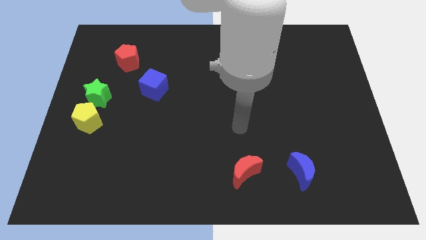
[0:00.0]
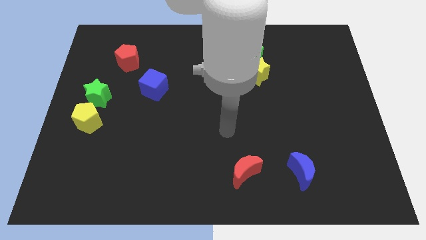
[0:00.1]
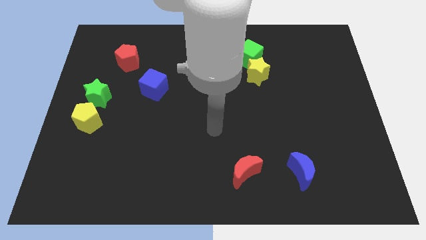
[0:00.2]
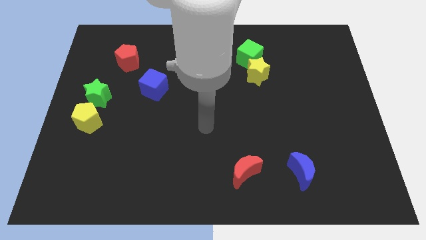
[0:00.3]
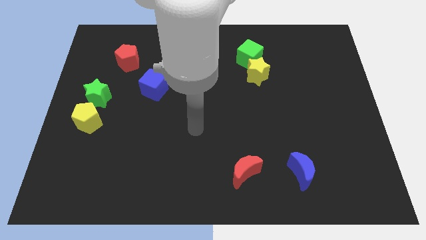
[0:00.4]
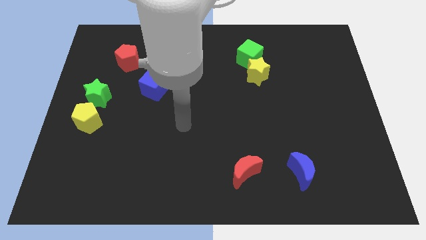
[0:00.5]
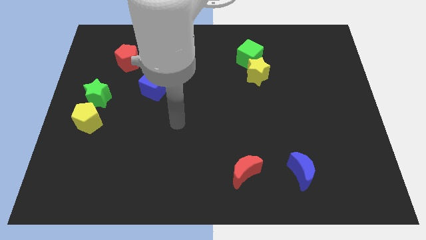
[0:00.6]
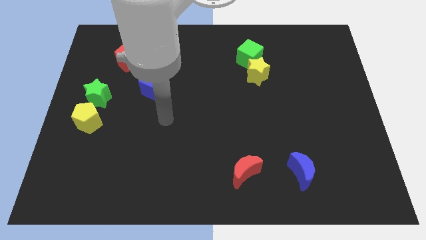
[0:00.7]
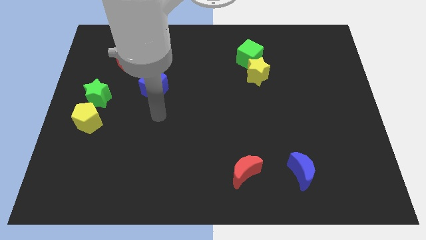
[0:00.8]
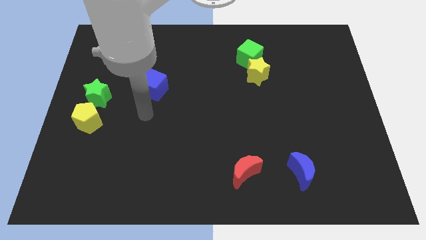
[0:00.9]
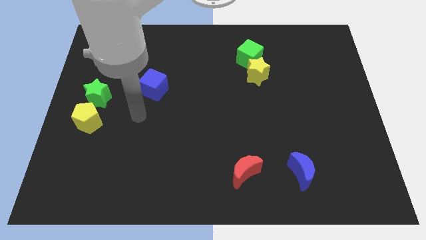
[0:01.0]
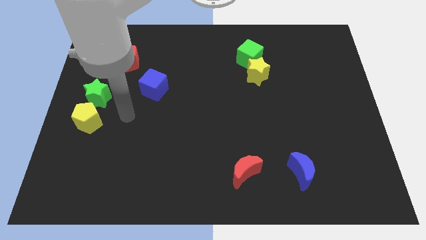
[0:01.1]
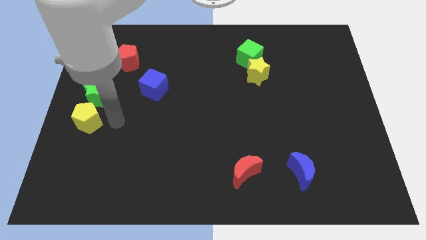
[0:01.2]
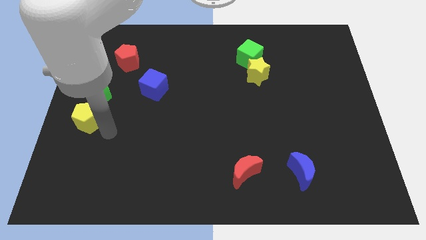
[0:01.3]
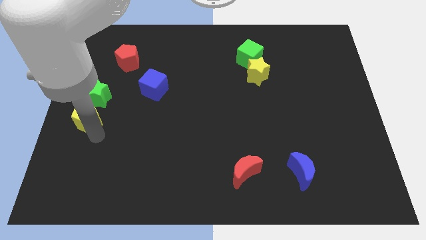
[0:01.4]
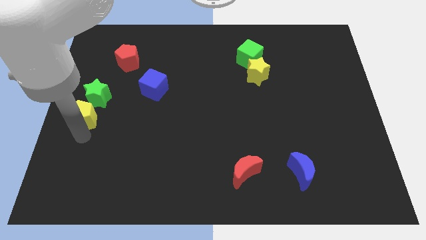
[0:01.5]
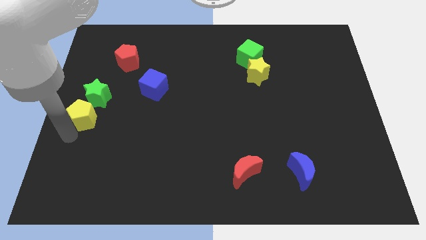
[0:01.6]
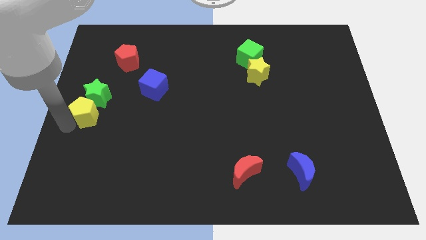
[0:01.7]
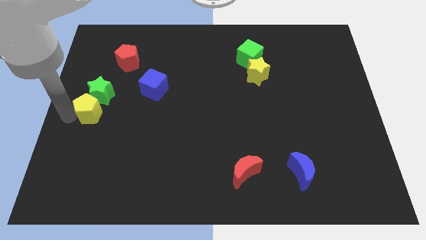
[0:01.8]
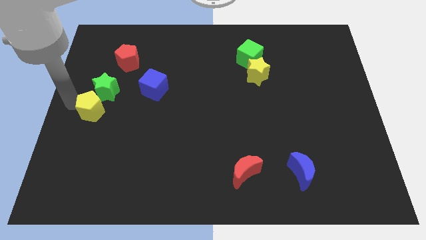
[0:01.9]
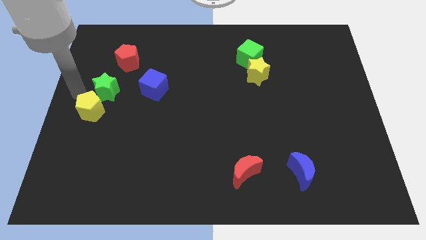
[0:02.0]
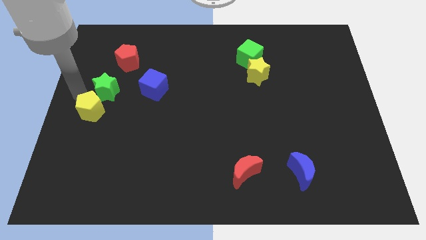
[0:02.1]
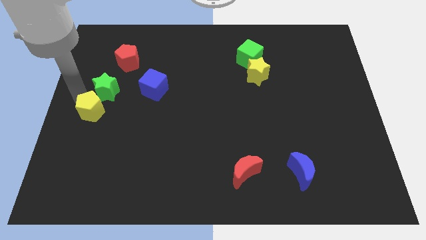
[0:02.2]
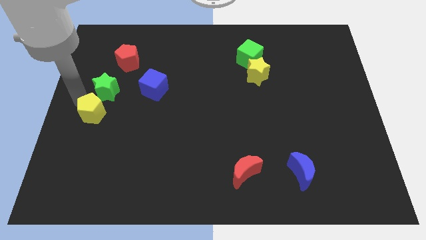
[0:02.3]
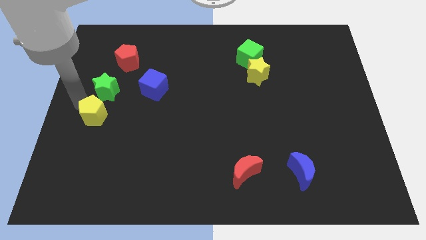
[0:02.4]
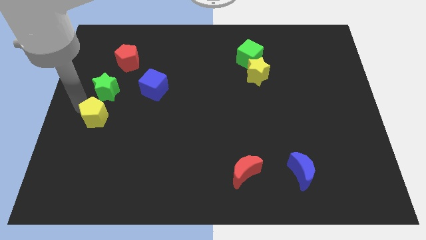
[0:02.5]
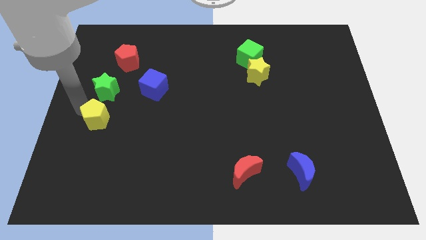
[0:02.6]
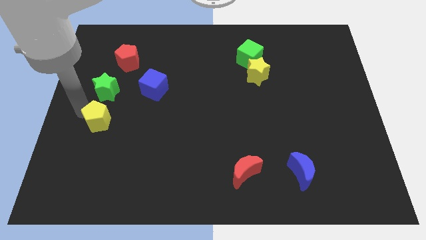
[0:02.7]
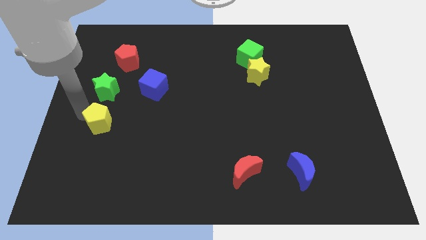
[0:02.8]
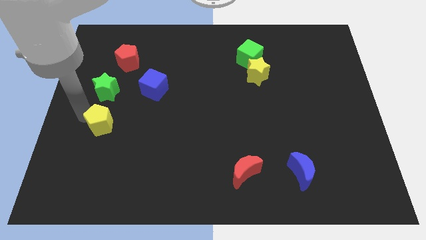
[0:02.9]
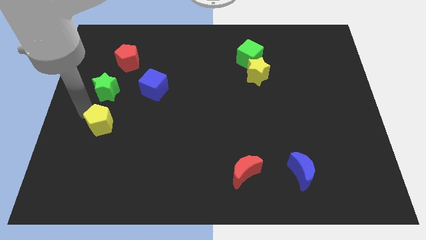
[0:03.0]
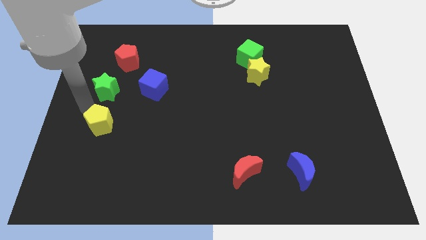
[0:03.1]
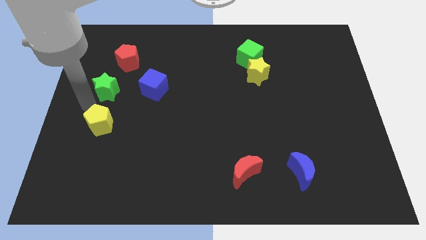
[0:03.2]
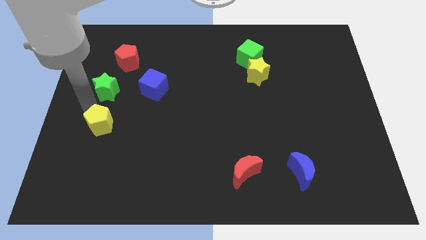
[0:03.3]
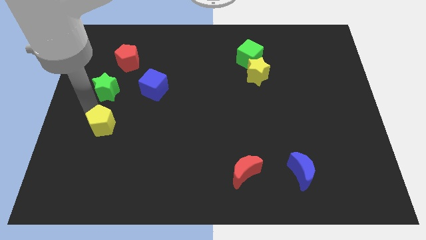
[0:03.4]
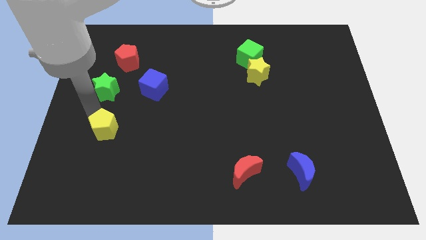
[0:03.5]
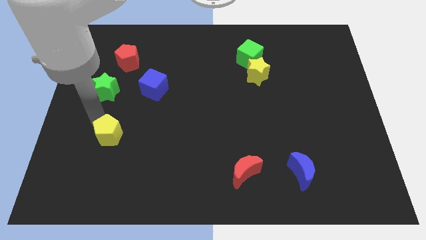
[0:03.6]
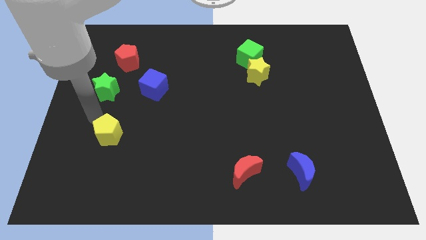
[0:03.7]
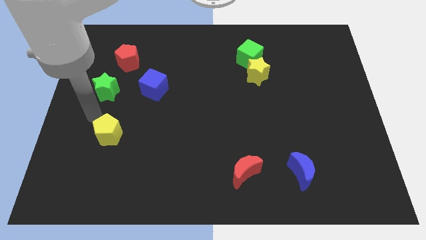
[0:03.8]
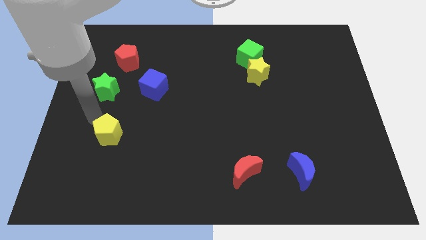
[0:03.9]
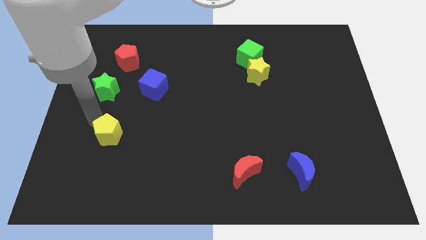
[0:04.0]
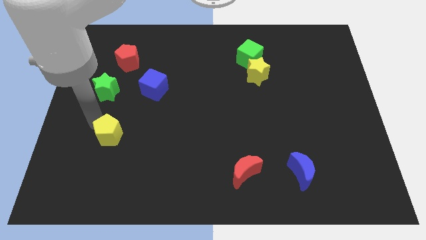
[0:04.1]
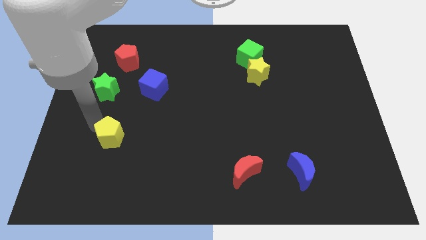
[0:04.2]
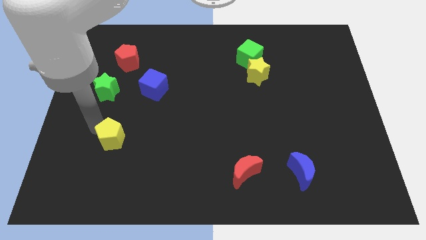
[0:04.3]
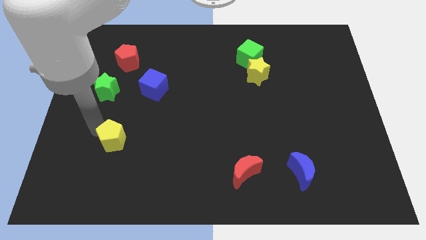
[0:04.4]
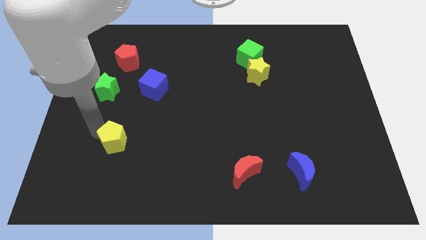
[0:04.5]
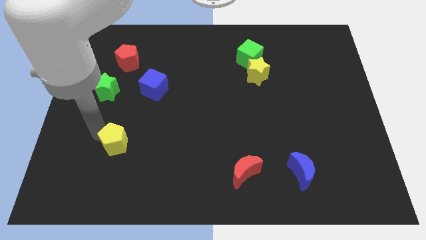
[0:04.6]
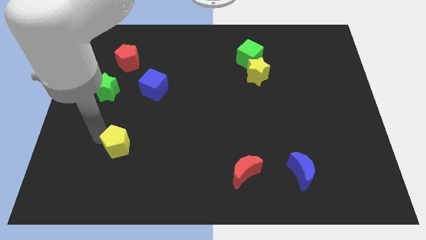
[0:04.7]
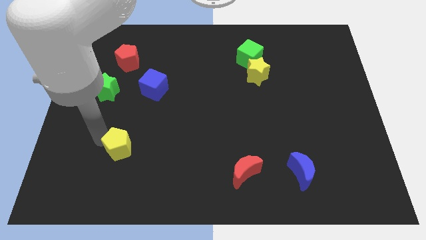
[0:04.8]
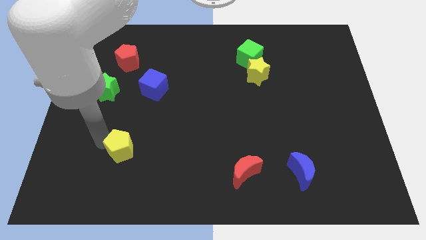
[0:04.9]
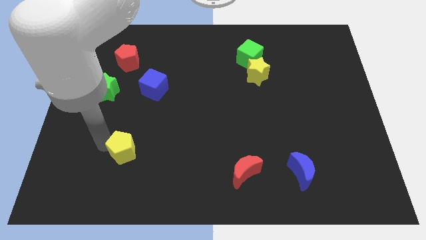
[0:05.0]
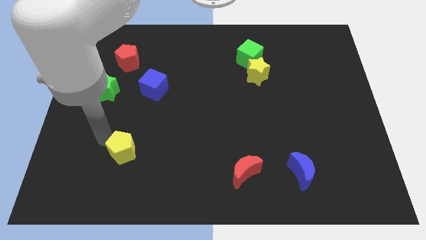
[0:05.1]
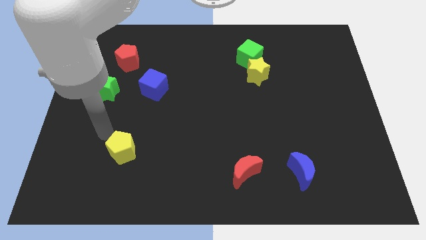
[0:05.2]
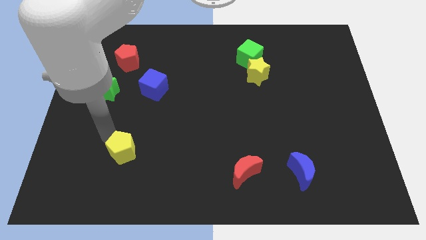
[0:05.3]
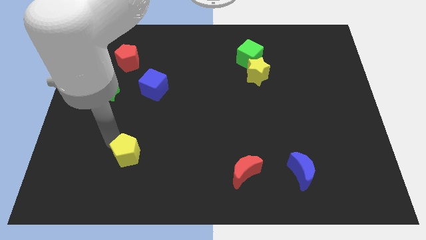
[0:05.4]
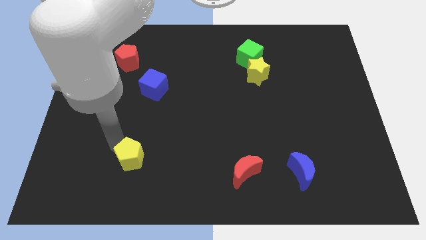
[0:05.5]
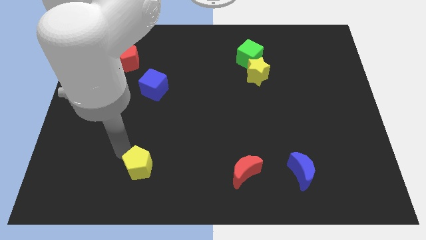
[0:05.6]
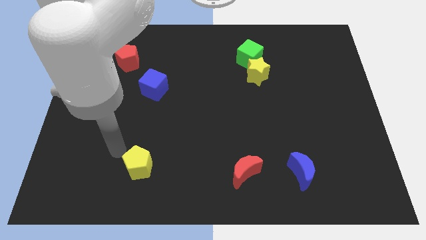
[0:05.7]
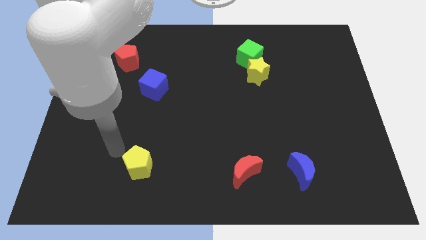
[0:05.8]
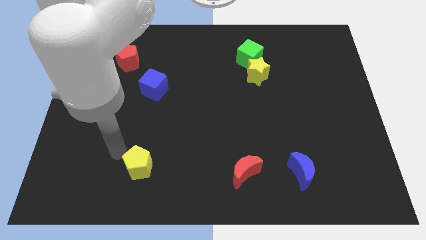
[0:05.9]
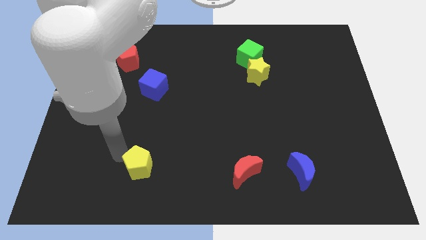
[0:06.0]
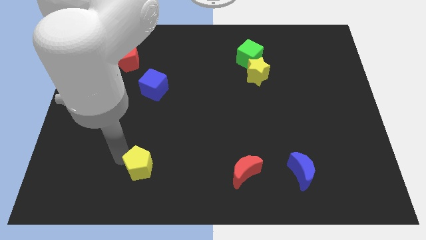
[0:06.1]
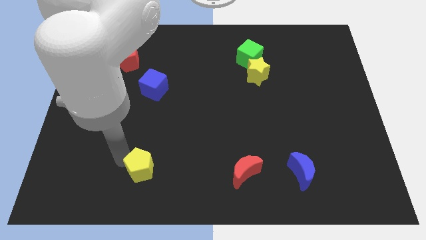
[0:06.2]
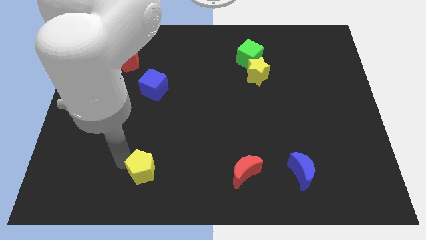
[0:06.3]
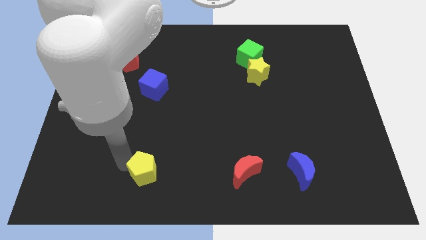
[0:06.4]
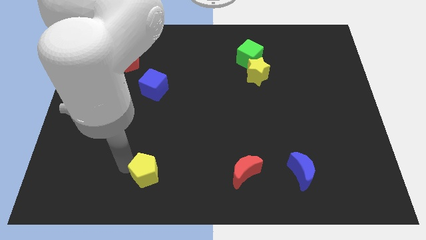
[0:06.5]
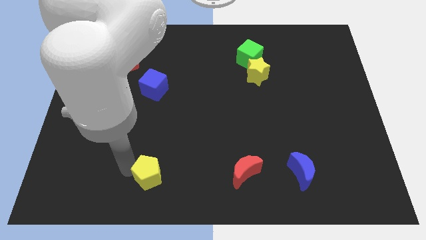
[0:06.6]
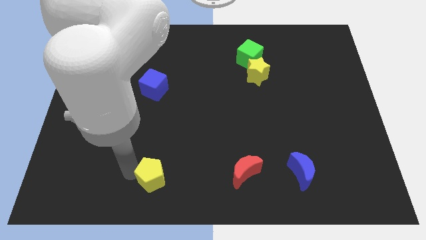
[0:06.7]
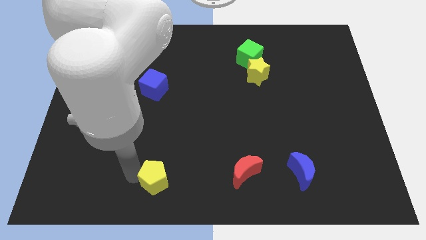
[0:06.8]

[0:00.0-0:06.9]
put the yellow pentagon to the bottom side
